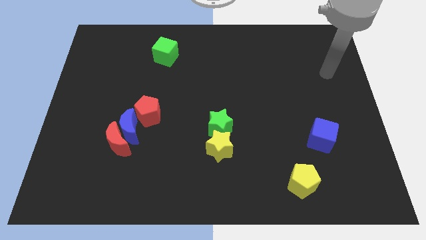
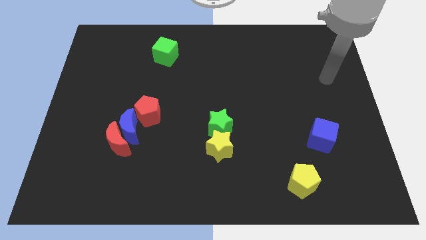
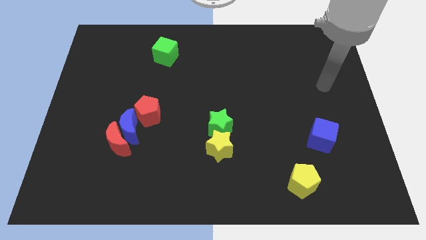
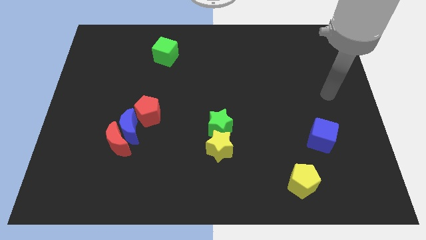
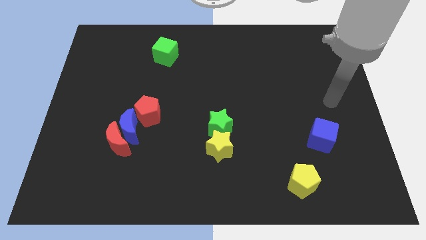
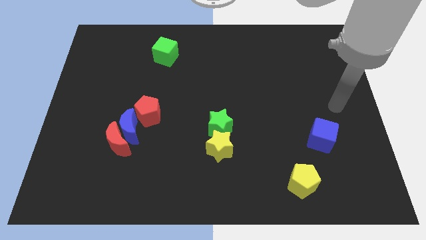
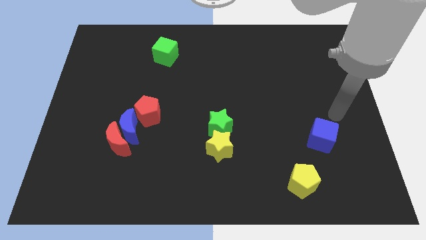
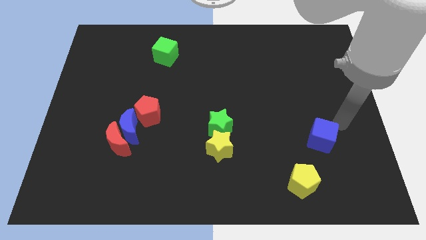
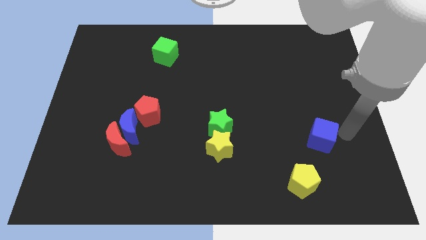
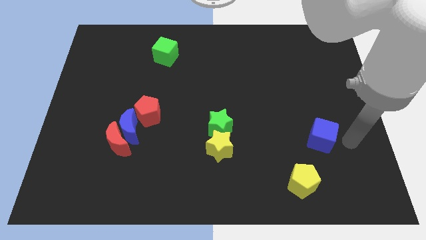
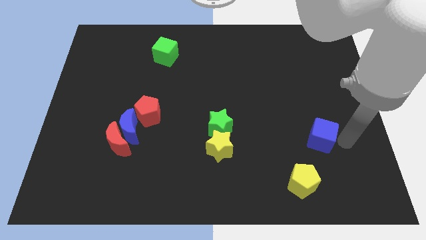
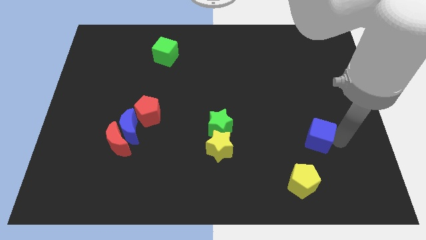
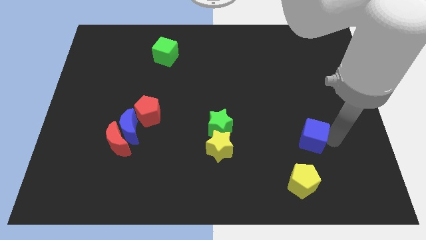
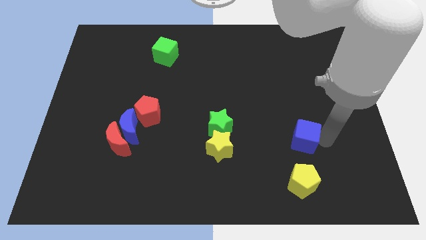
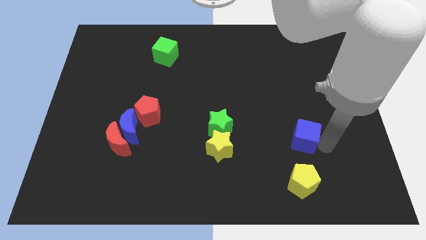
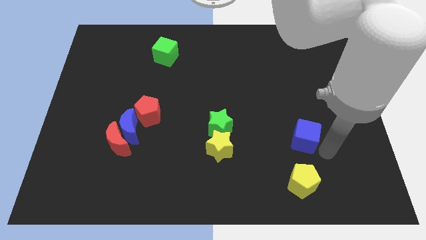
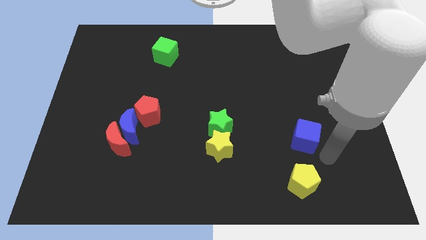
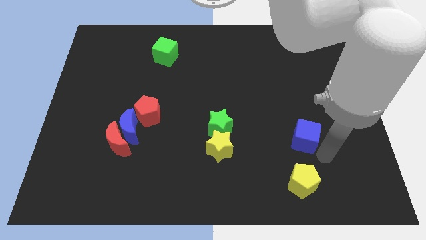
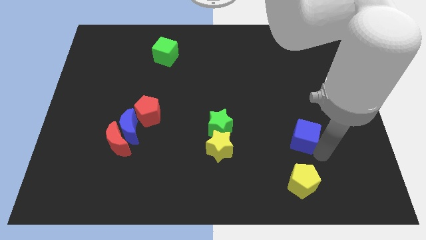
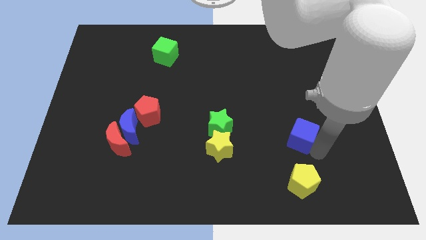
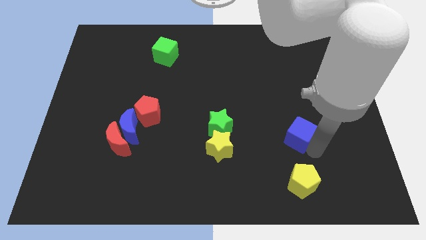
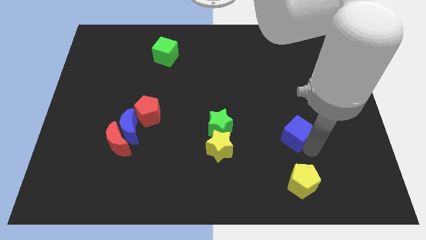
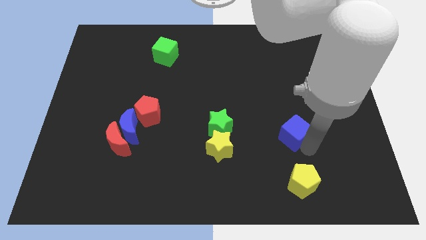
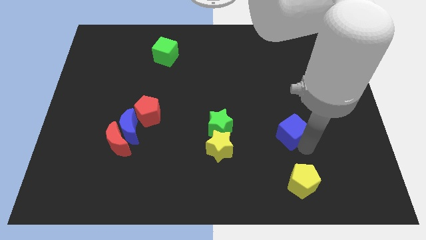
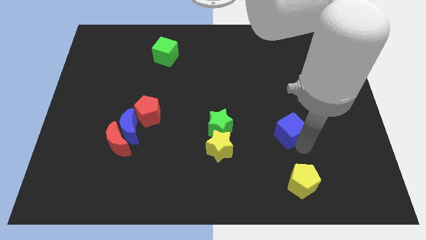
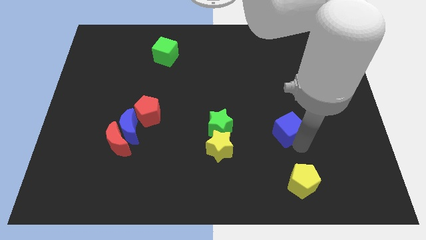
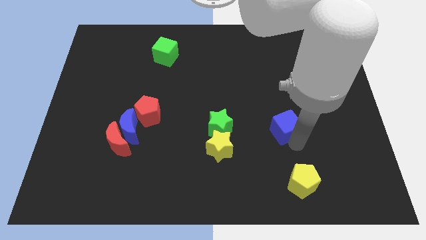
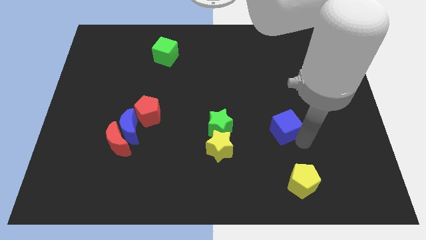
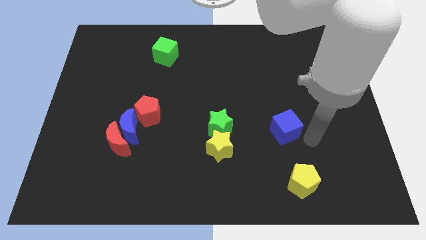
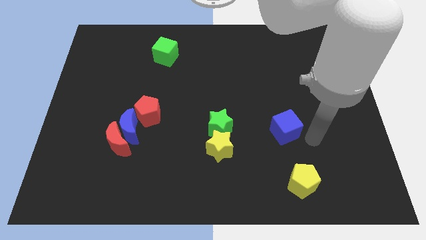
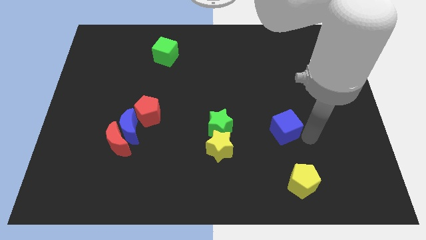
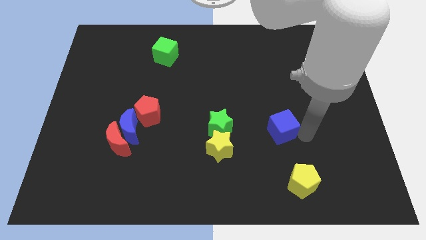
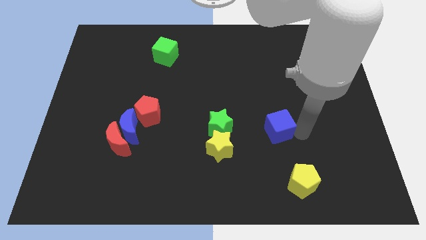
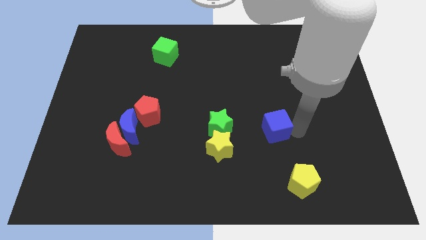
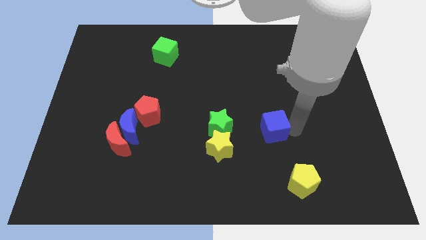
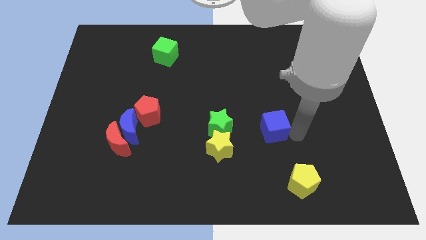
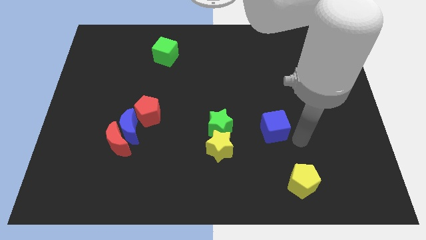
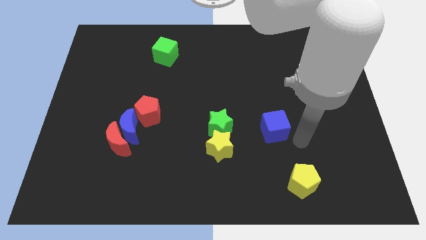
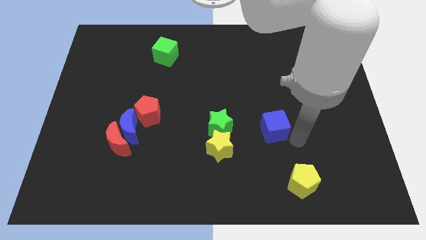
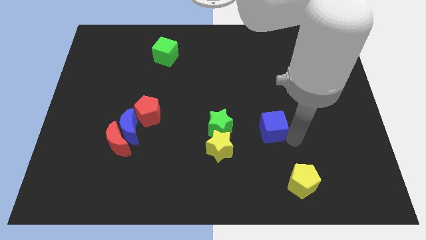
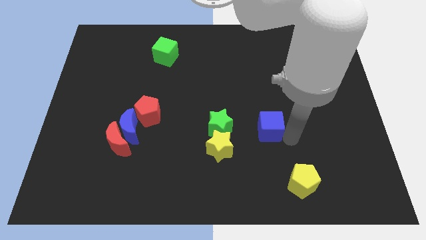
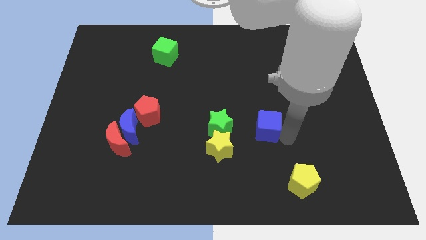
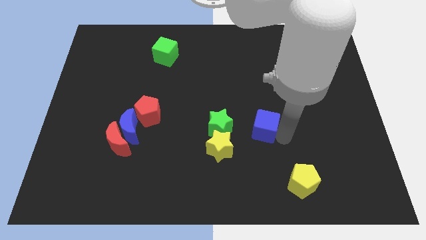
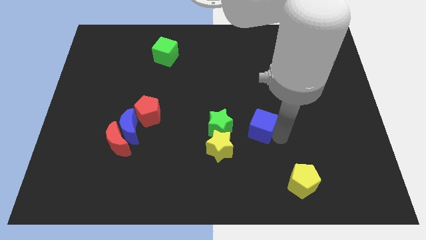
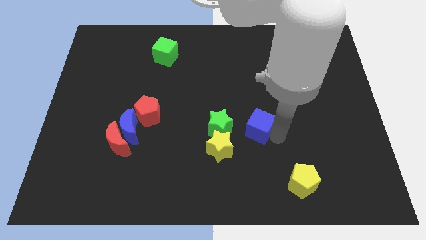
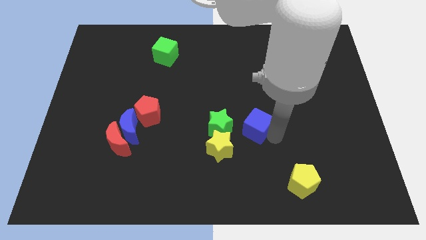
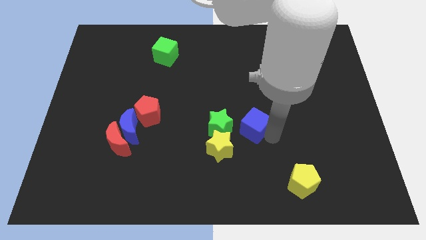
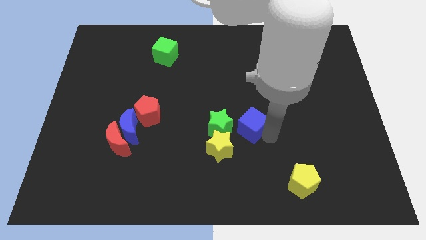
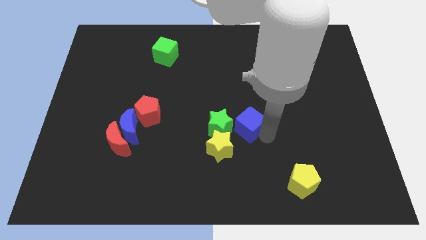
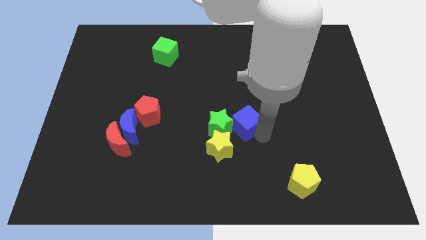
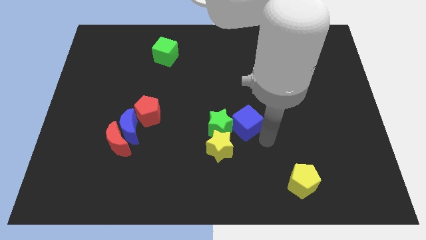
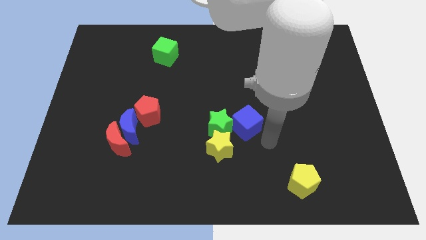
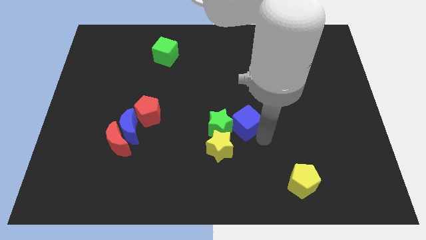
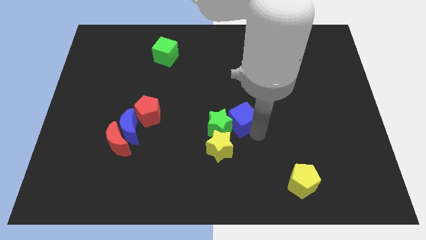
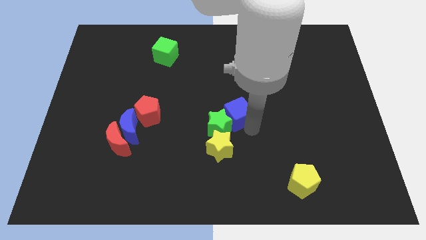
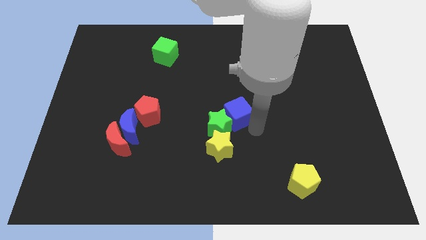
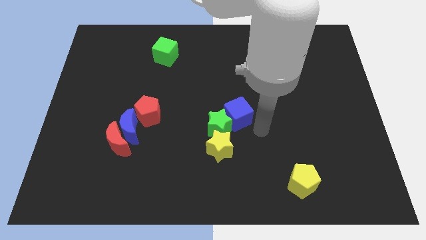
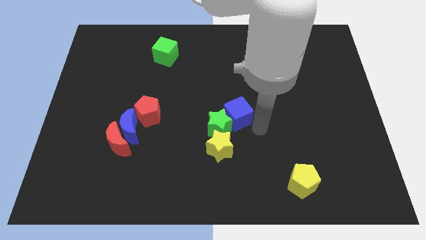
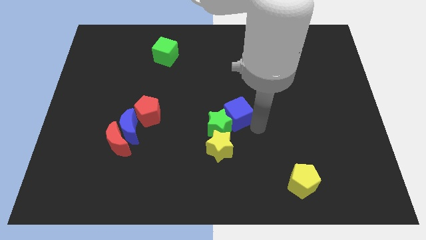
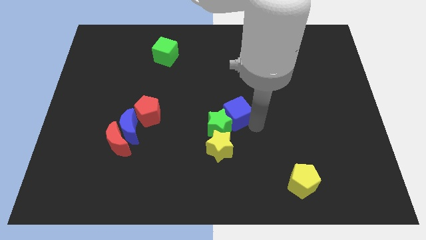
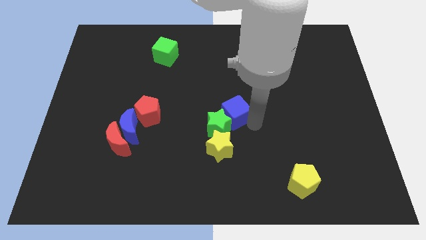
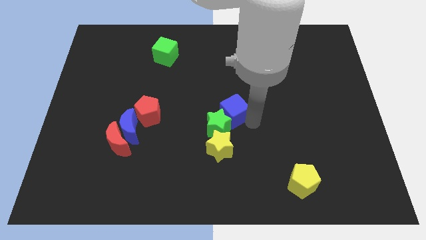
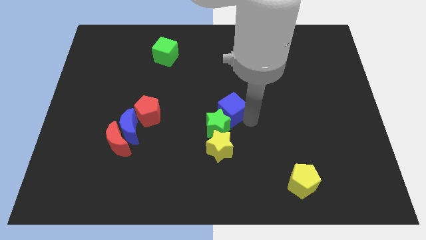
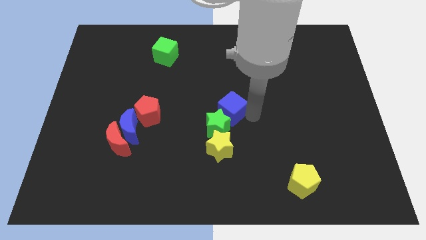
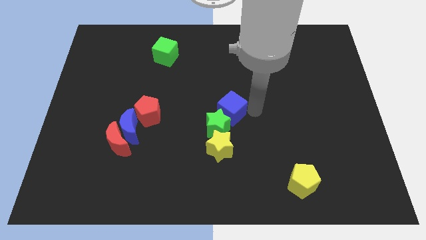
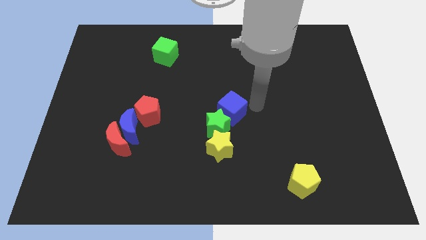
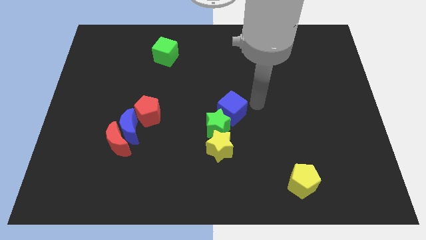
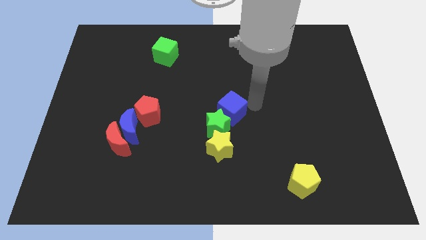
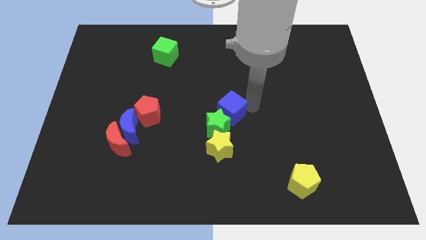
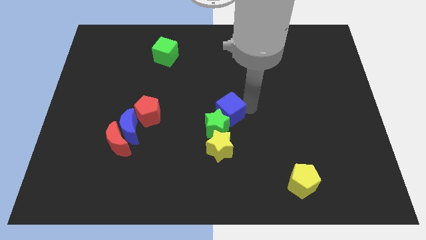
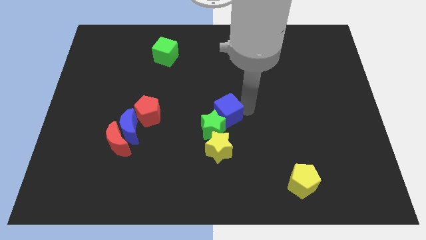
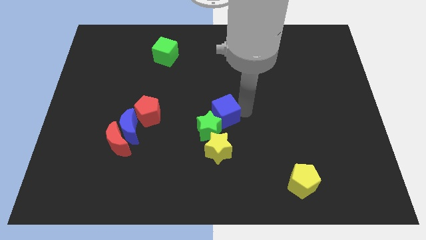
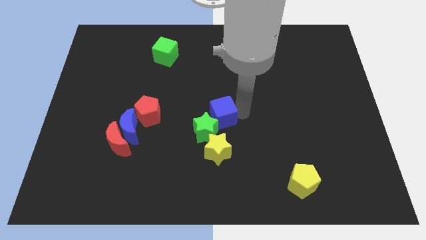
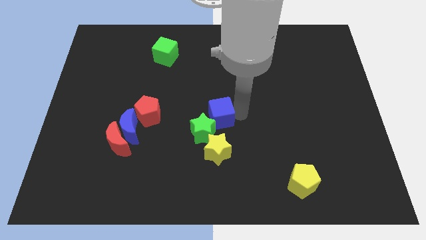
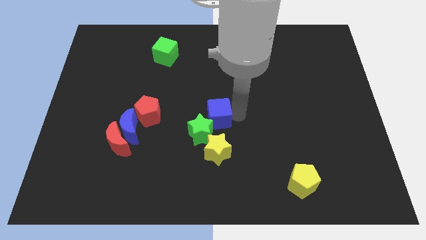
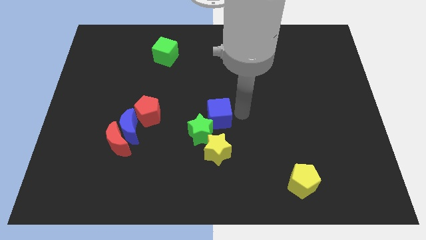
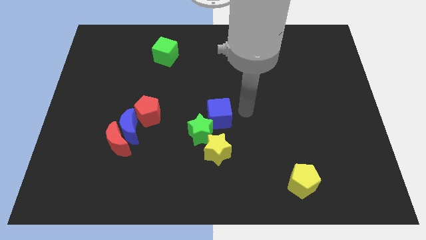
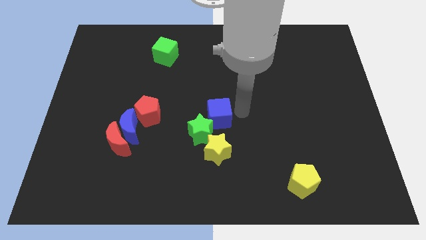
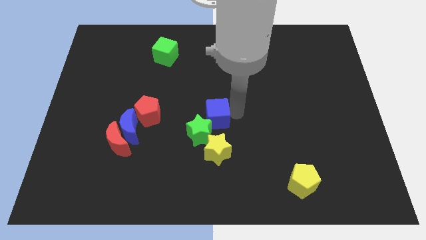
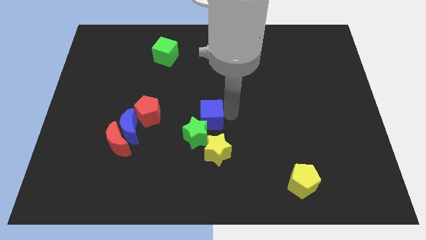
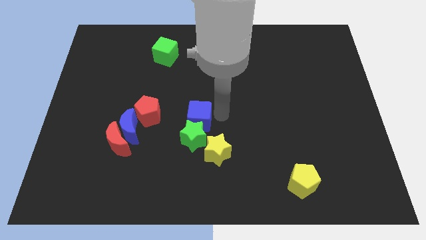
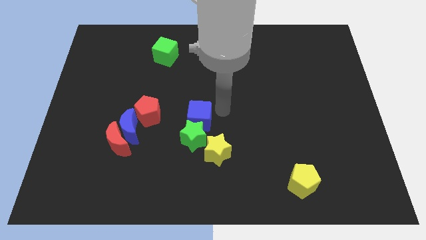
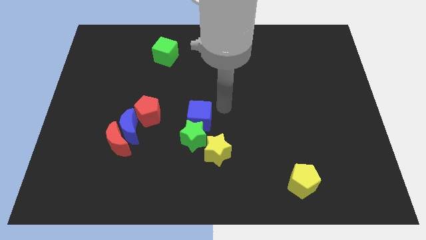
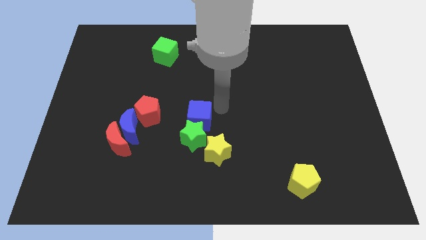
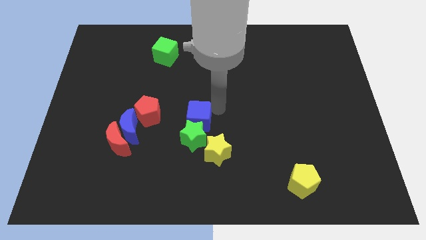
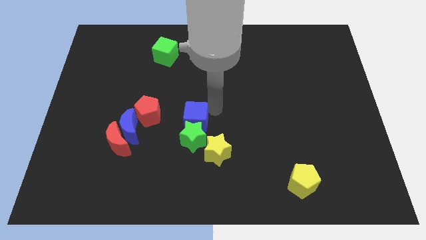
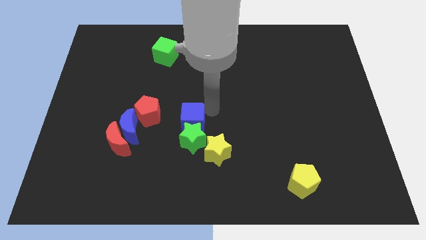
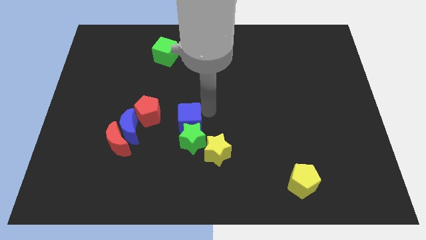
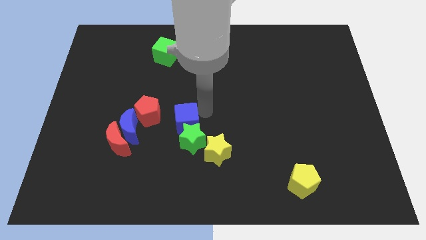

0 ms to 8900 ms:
move the blue cube to the bottom right side of the red pentagon
